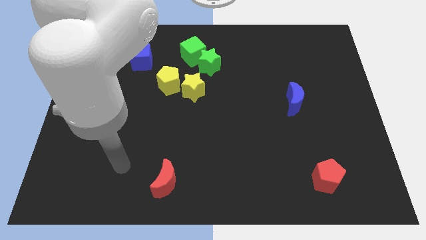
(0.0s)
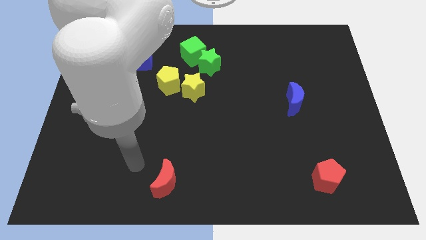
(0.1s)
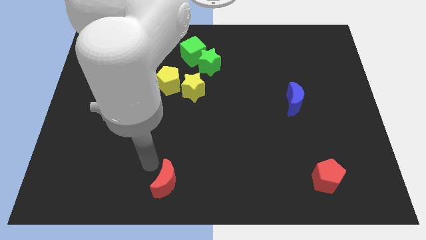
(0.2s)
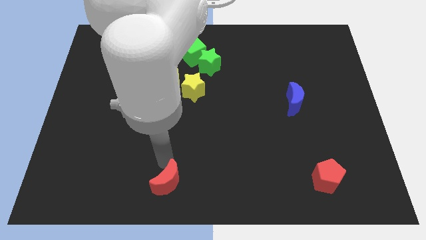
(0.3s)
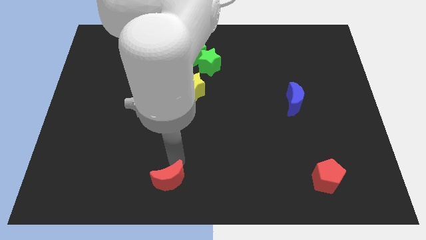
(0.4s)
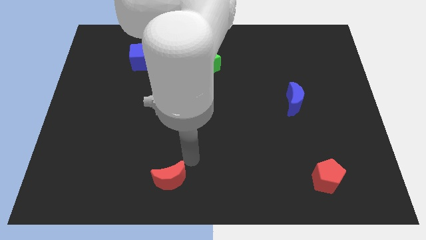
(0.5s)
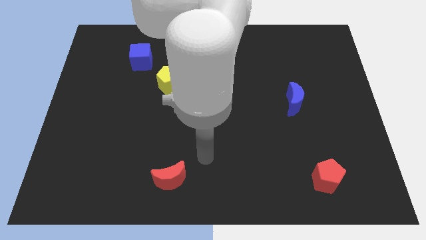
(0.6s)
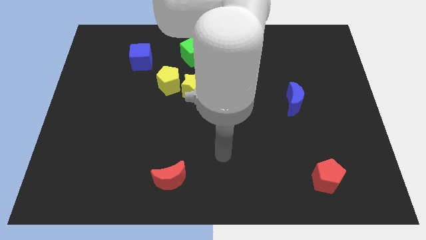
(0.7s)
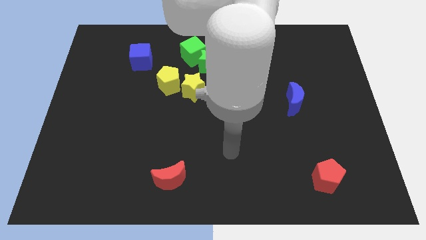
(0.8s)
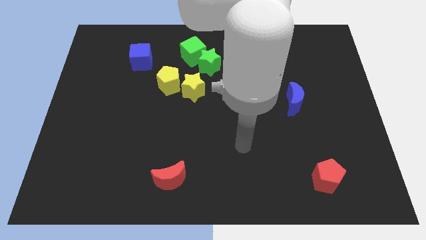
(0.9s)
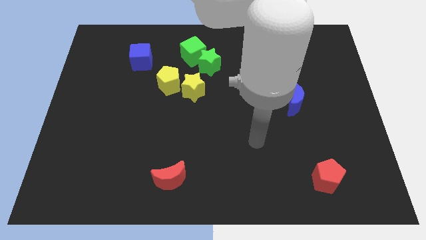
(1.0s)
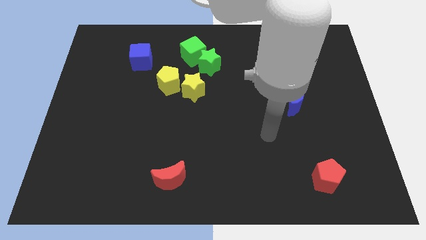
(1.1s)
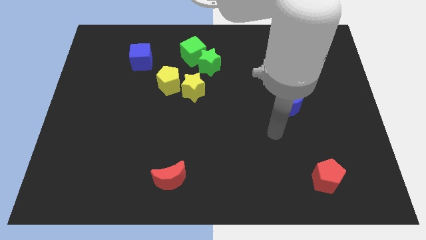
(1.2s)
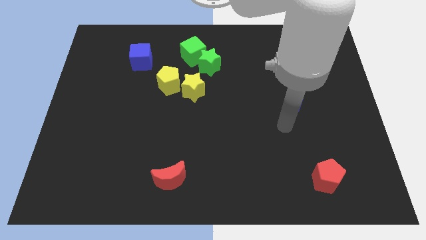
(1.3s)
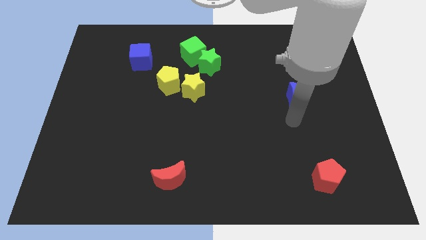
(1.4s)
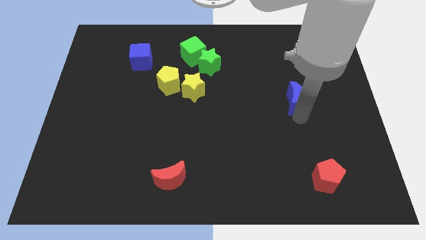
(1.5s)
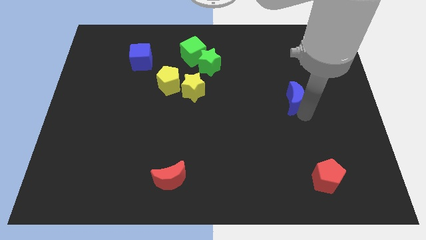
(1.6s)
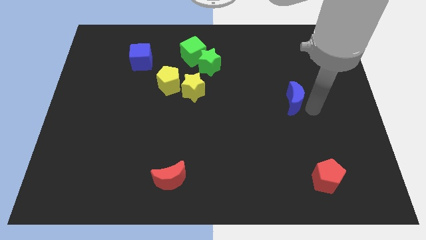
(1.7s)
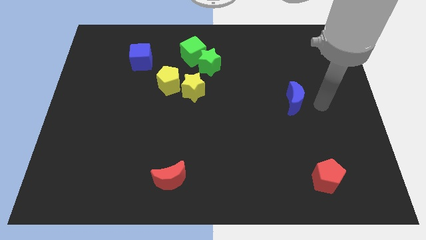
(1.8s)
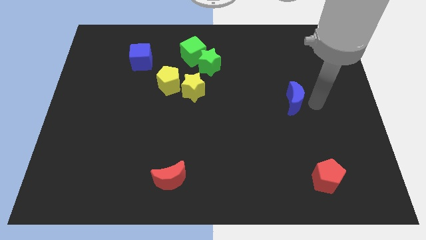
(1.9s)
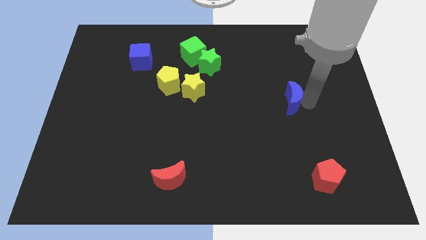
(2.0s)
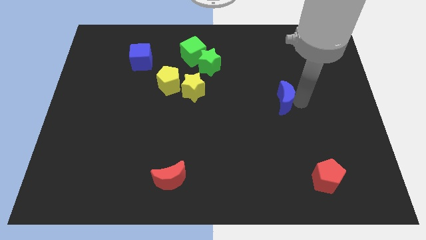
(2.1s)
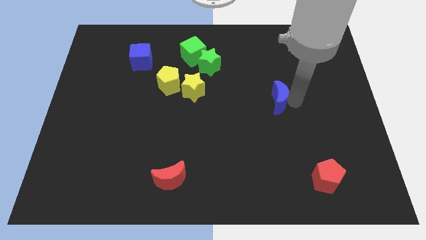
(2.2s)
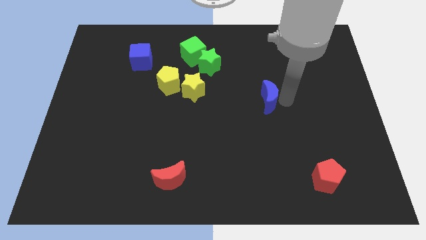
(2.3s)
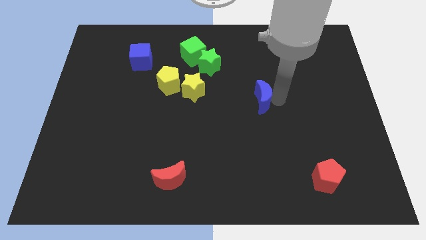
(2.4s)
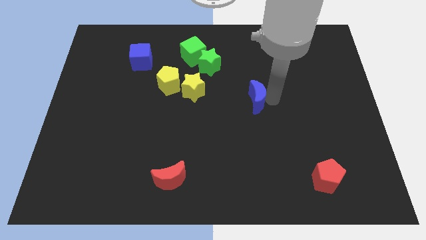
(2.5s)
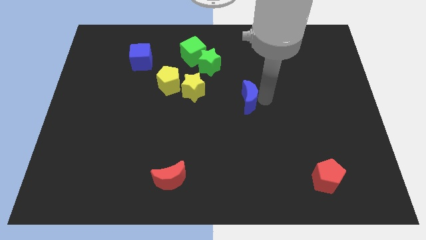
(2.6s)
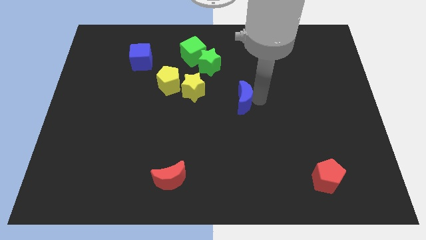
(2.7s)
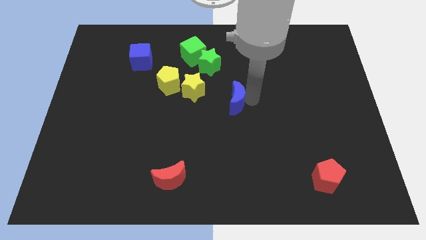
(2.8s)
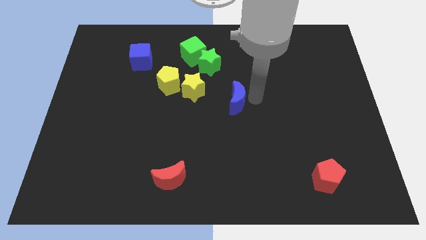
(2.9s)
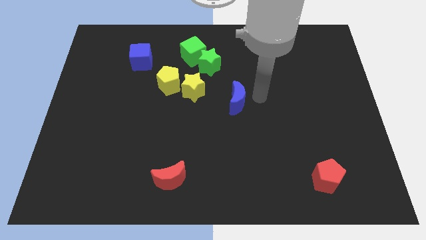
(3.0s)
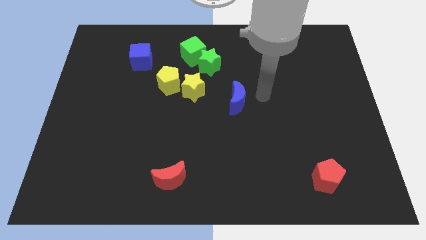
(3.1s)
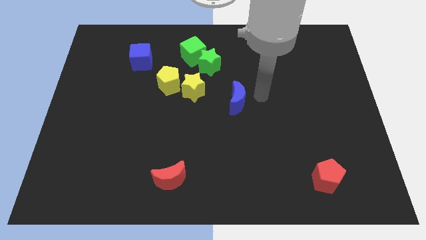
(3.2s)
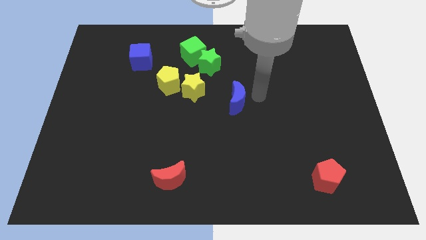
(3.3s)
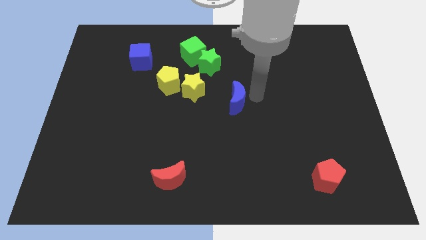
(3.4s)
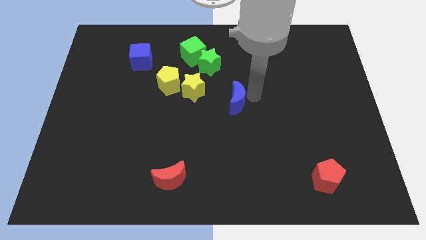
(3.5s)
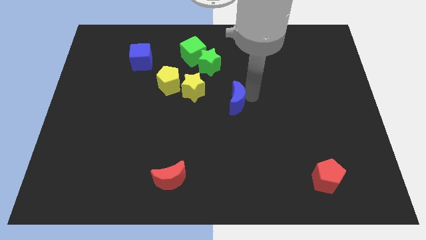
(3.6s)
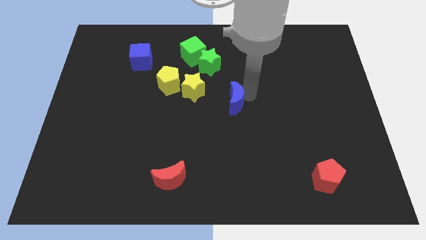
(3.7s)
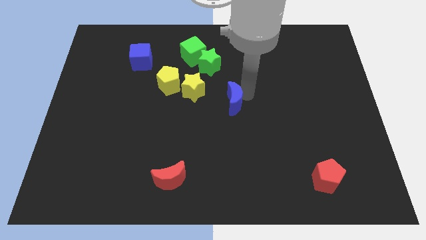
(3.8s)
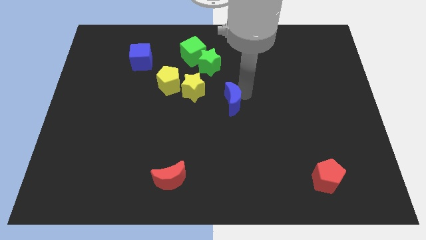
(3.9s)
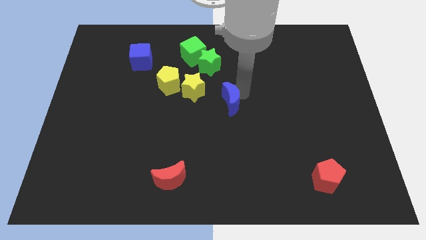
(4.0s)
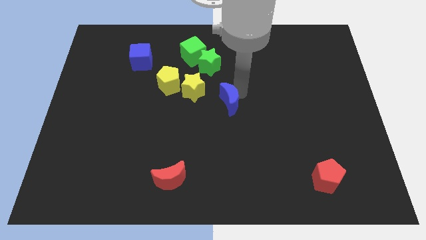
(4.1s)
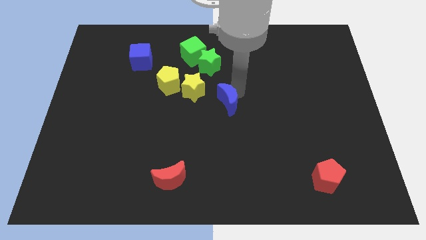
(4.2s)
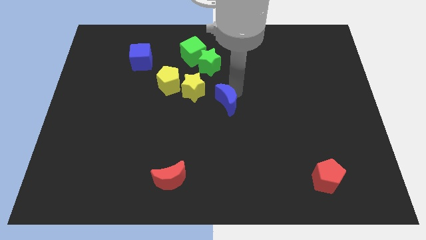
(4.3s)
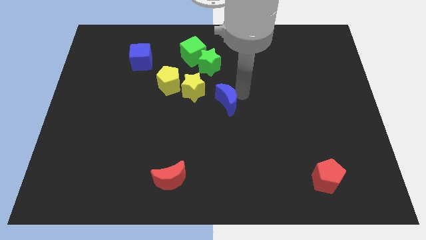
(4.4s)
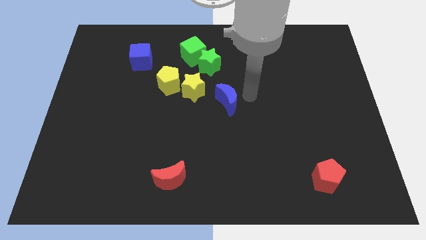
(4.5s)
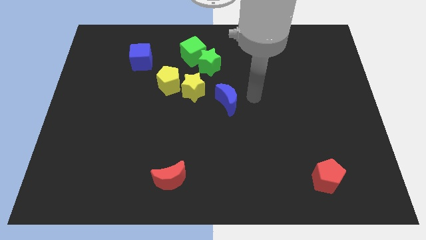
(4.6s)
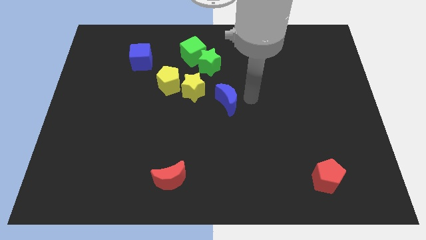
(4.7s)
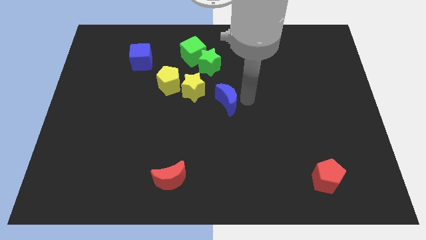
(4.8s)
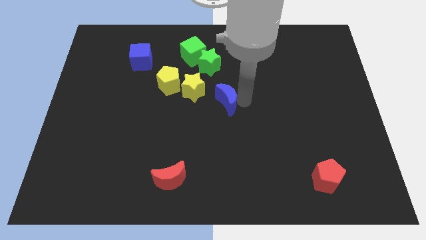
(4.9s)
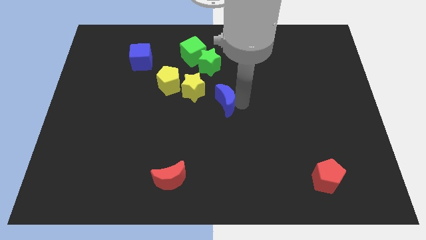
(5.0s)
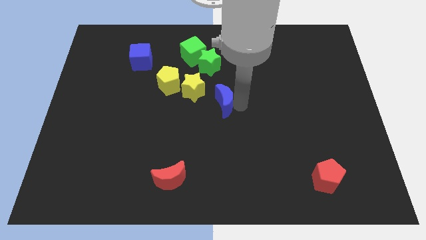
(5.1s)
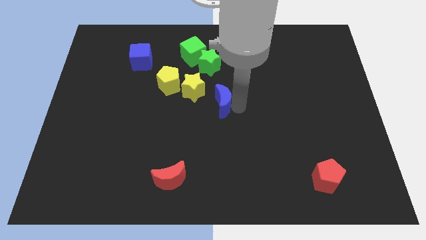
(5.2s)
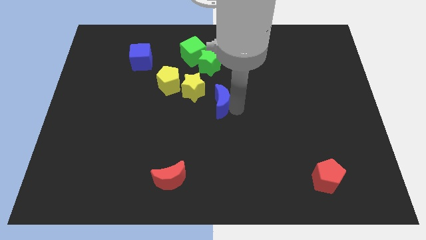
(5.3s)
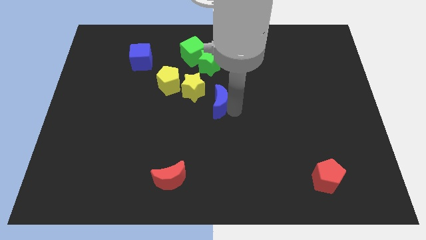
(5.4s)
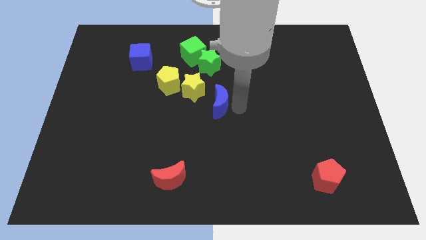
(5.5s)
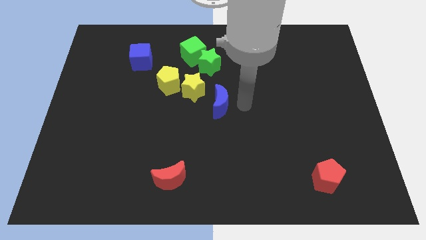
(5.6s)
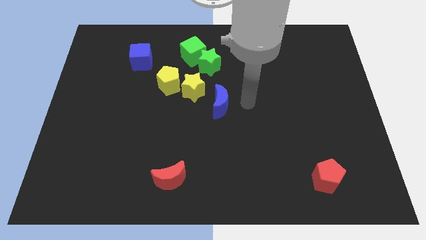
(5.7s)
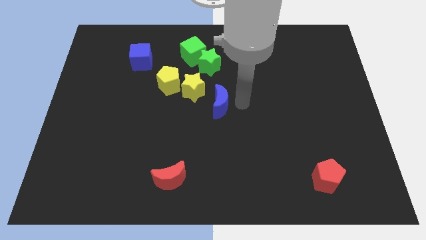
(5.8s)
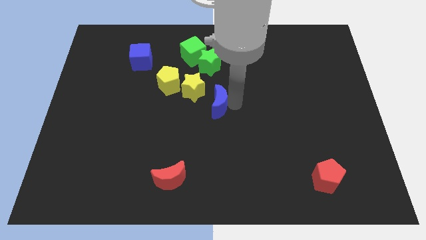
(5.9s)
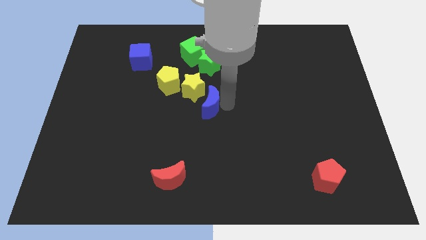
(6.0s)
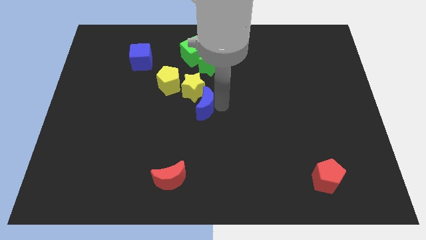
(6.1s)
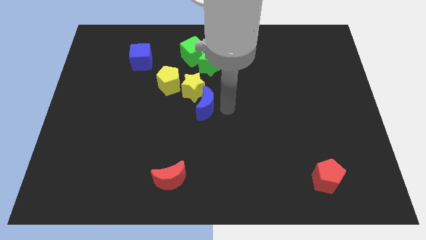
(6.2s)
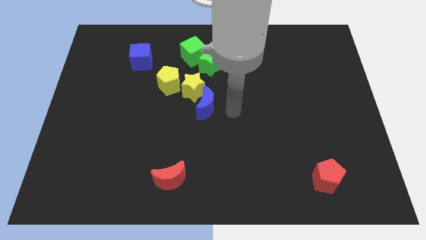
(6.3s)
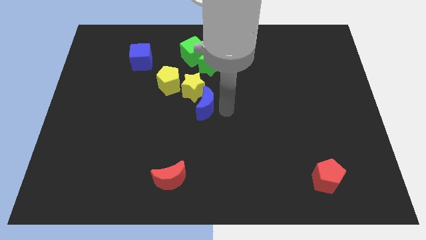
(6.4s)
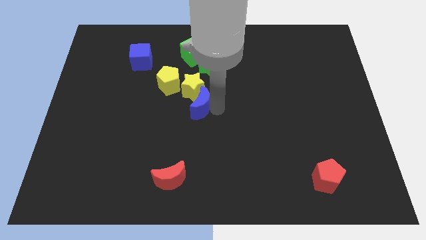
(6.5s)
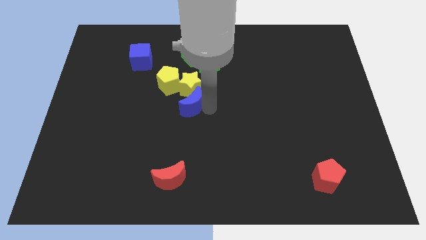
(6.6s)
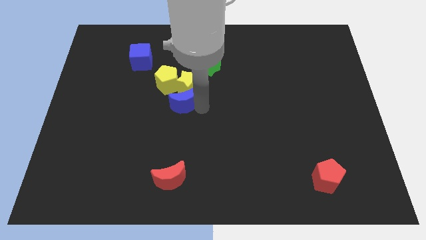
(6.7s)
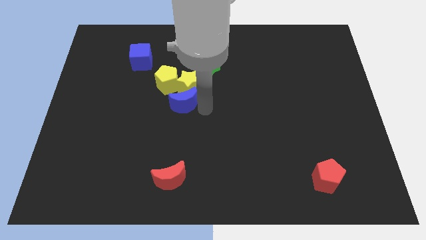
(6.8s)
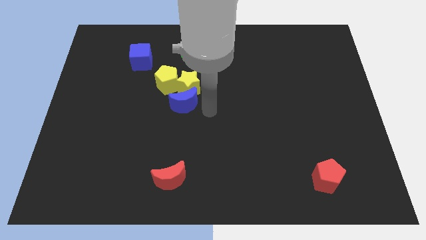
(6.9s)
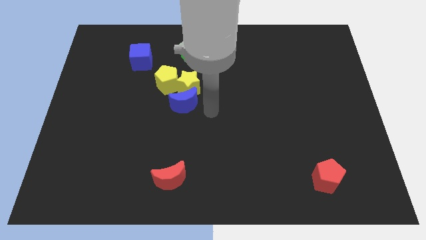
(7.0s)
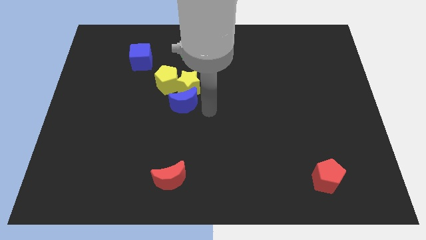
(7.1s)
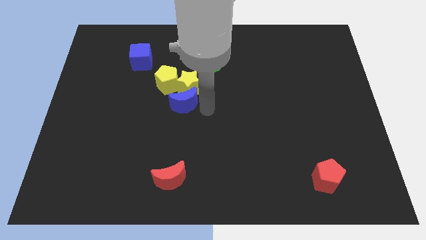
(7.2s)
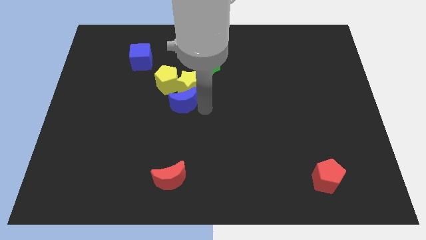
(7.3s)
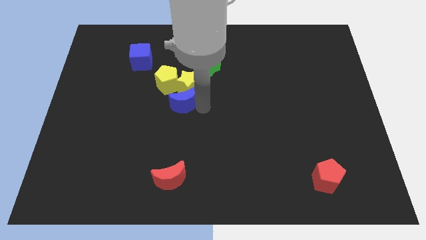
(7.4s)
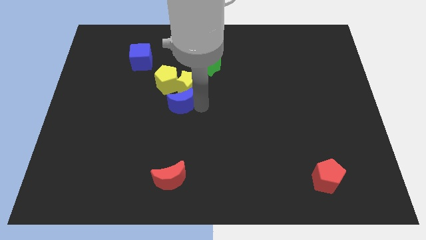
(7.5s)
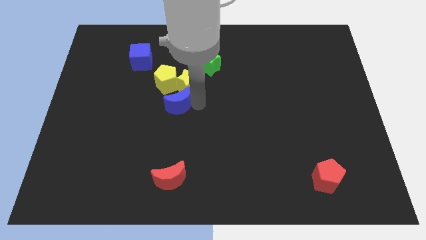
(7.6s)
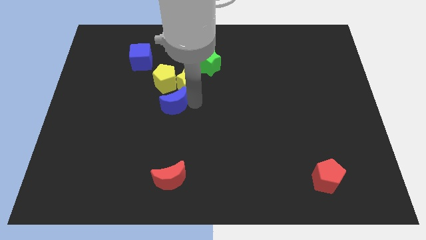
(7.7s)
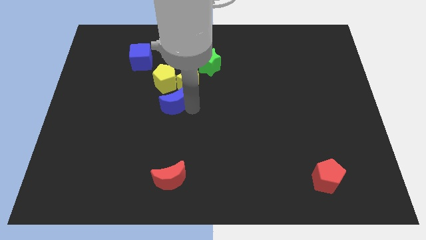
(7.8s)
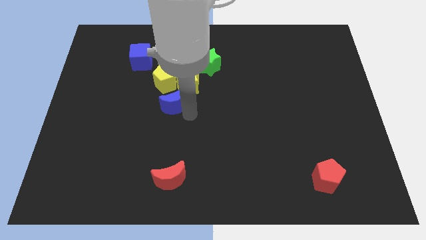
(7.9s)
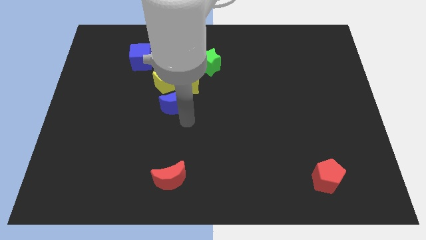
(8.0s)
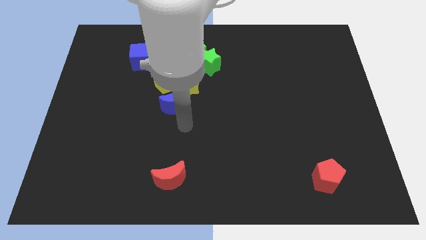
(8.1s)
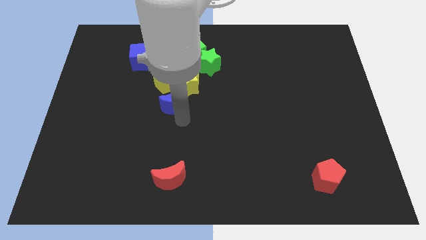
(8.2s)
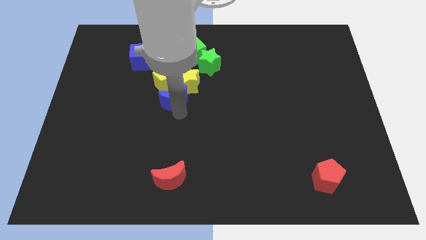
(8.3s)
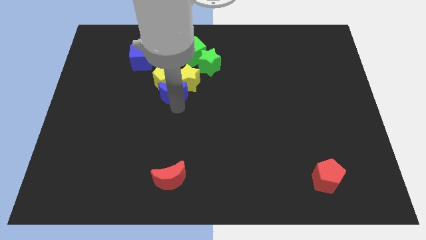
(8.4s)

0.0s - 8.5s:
move the blue moon towards the yellow pentagon
